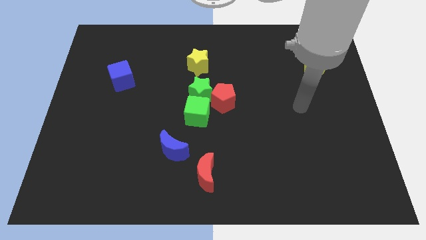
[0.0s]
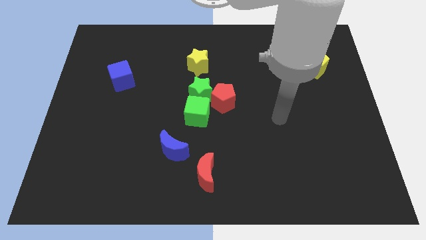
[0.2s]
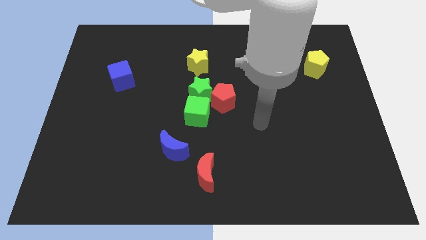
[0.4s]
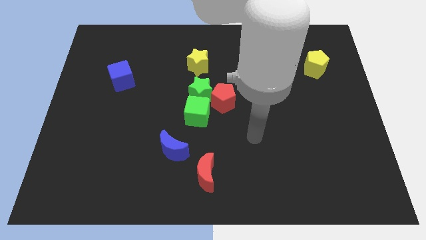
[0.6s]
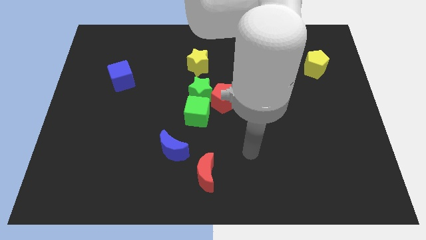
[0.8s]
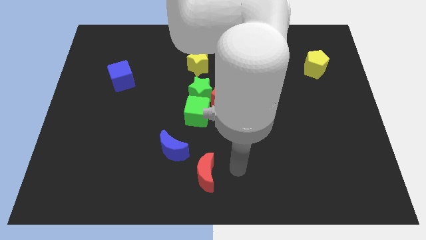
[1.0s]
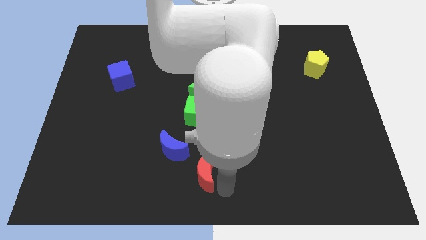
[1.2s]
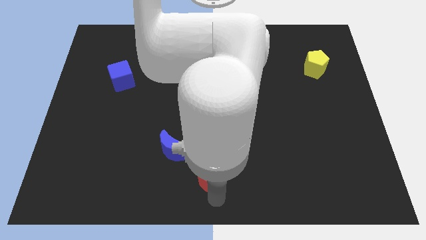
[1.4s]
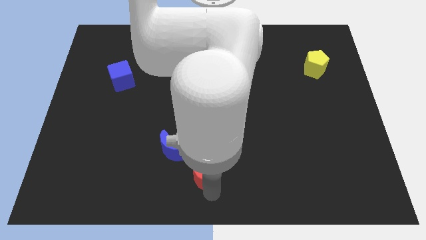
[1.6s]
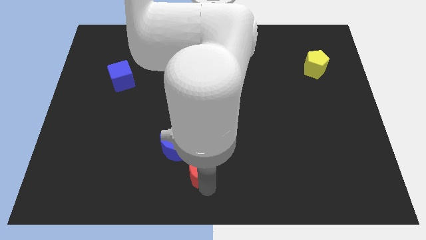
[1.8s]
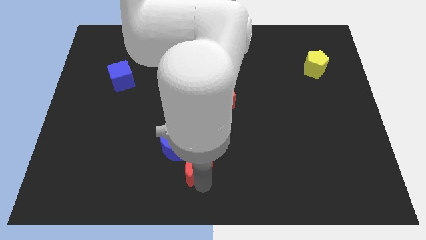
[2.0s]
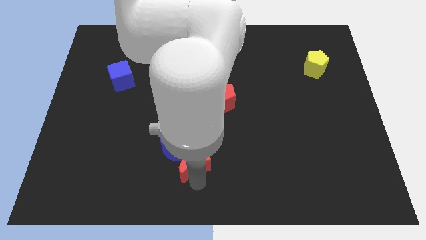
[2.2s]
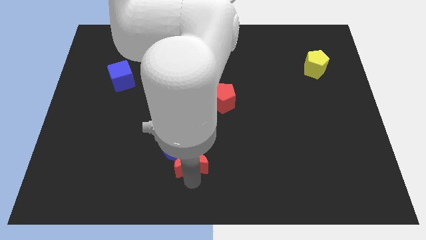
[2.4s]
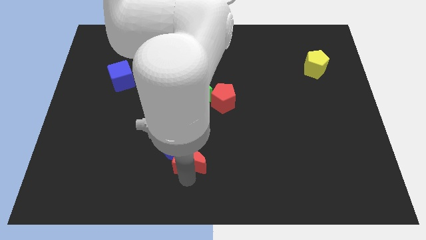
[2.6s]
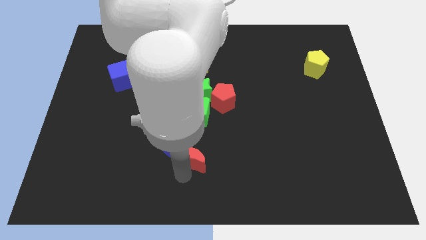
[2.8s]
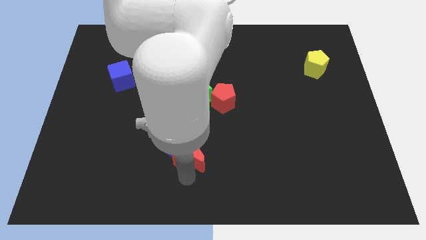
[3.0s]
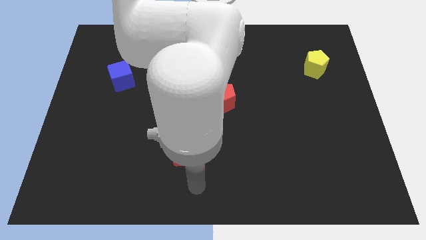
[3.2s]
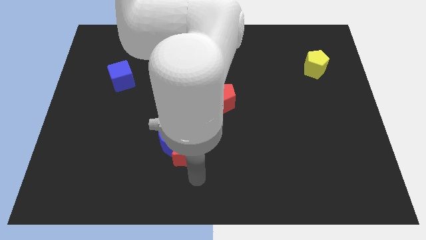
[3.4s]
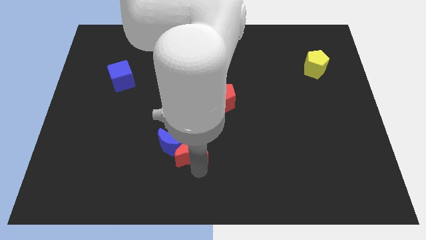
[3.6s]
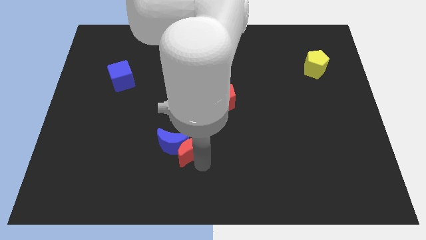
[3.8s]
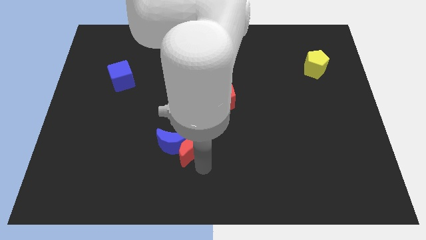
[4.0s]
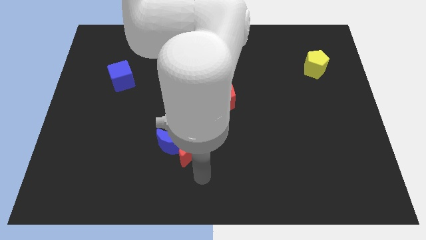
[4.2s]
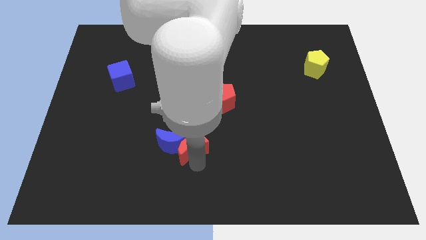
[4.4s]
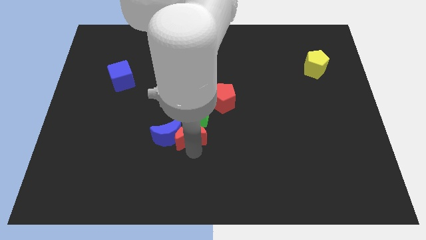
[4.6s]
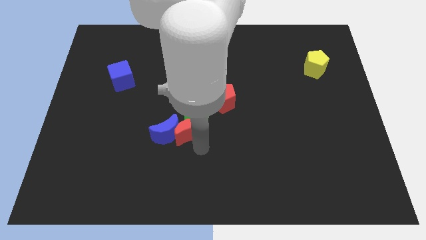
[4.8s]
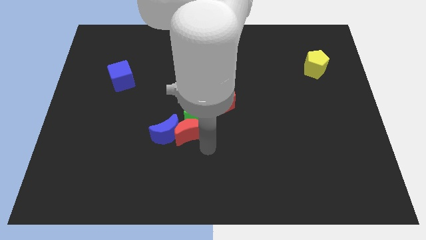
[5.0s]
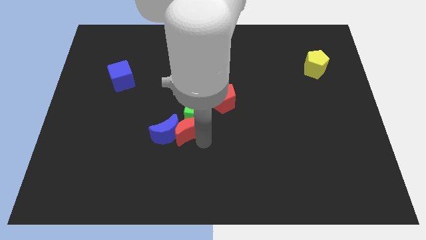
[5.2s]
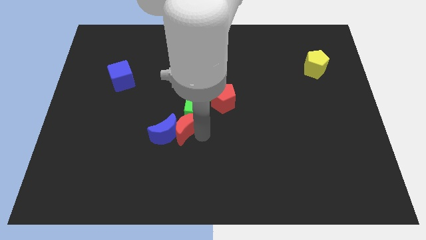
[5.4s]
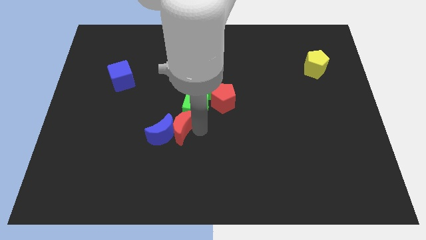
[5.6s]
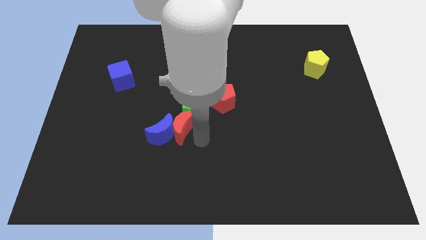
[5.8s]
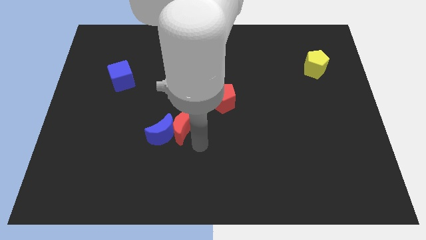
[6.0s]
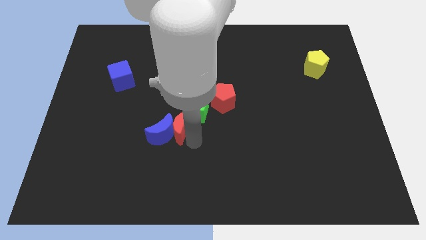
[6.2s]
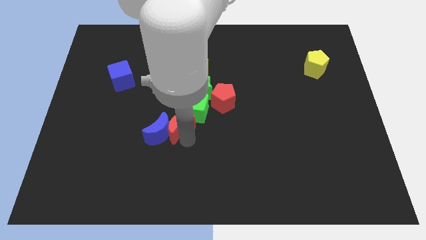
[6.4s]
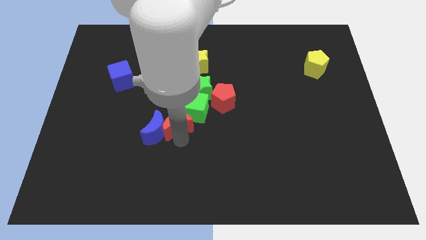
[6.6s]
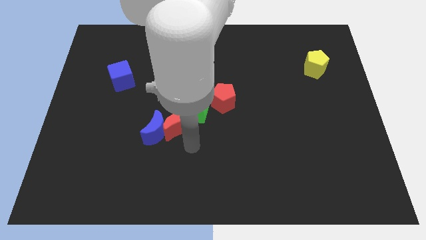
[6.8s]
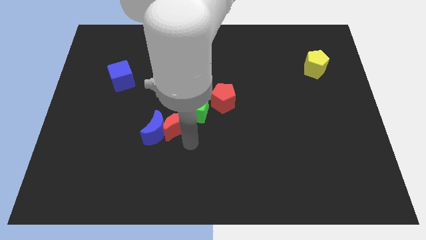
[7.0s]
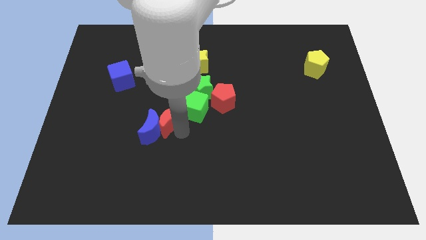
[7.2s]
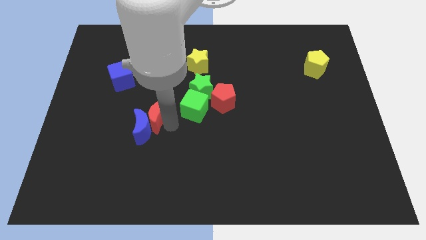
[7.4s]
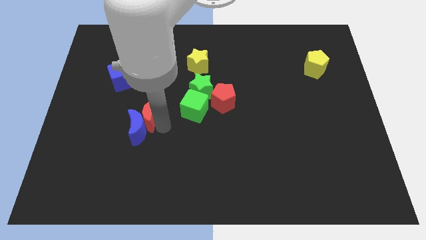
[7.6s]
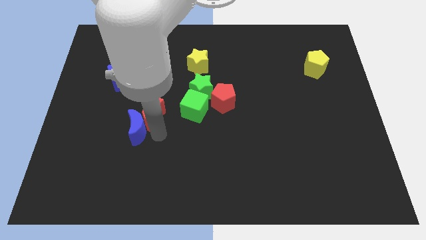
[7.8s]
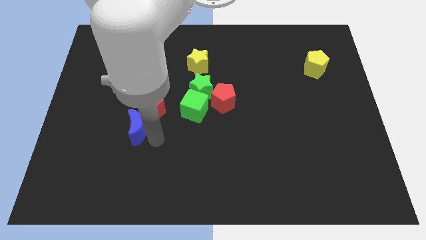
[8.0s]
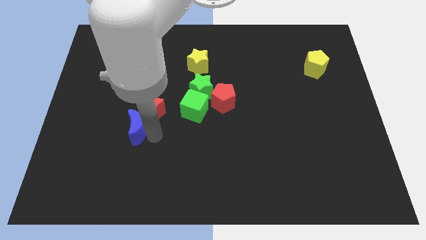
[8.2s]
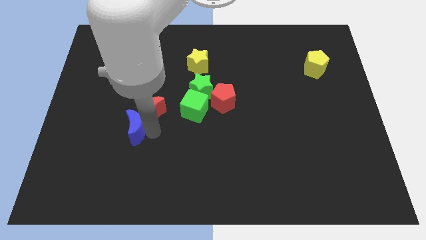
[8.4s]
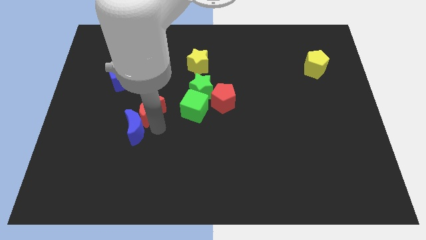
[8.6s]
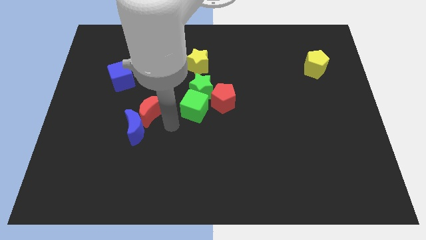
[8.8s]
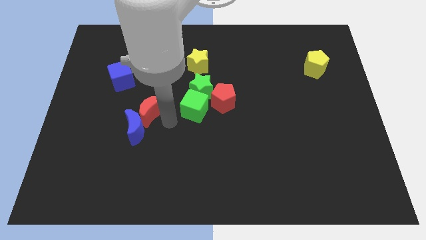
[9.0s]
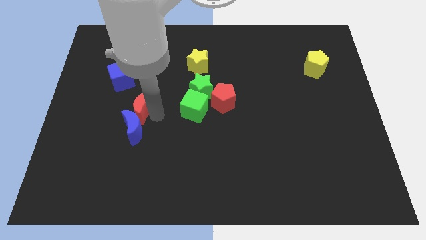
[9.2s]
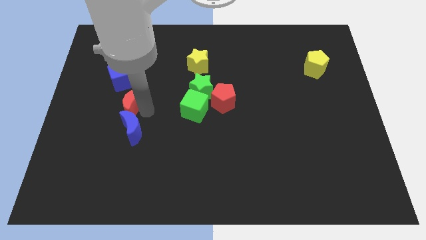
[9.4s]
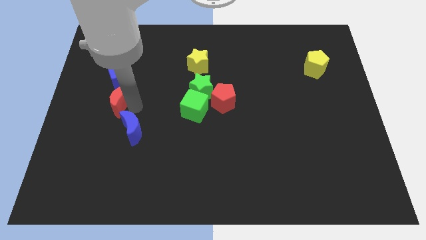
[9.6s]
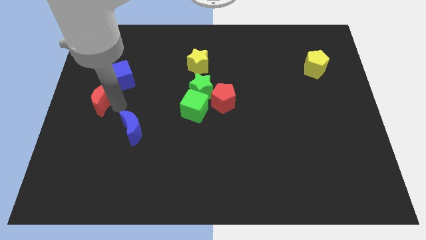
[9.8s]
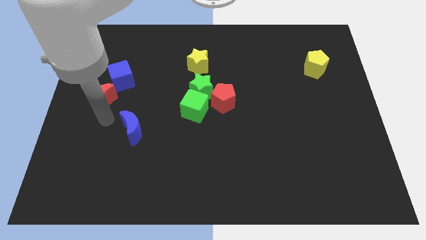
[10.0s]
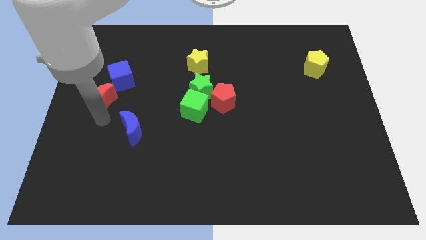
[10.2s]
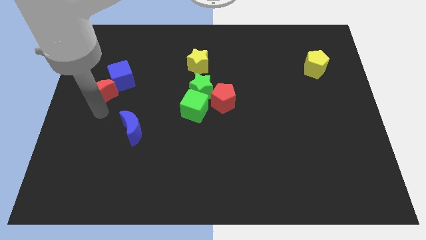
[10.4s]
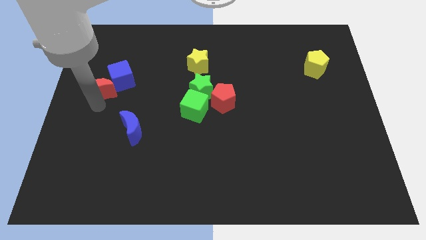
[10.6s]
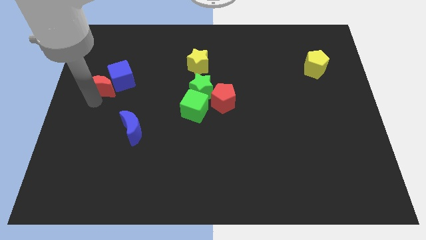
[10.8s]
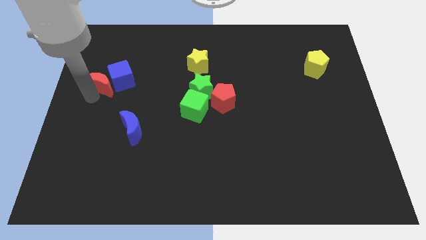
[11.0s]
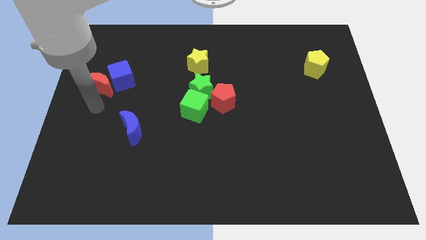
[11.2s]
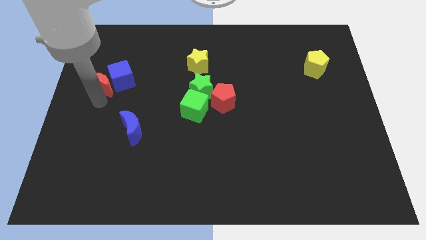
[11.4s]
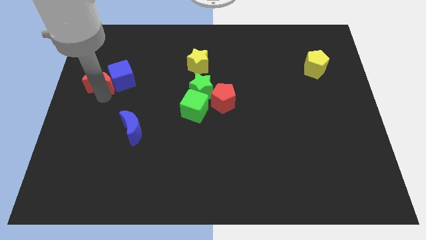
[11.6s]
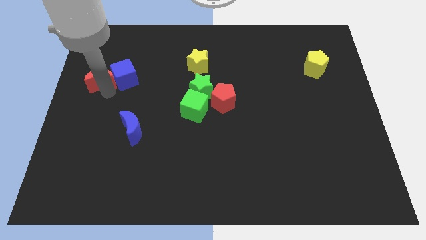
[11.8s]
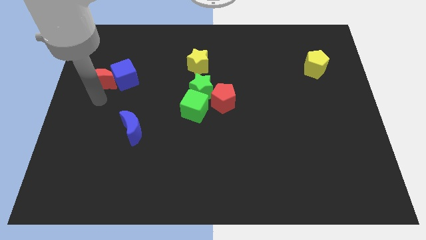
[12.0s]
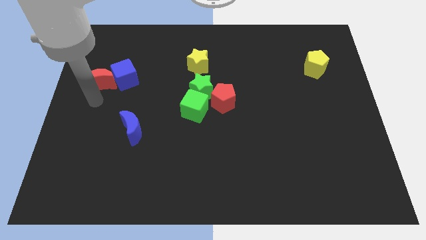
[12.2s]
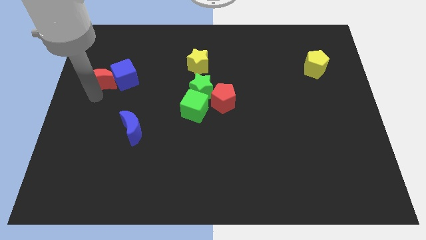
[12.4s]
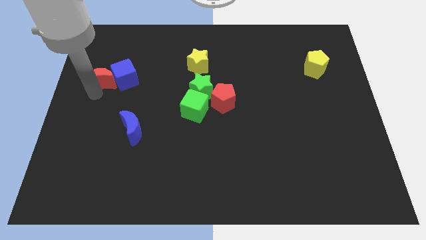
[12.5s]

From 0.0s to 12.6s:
put the red moon diagonally up and to the left of the blue cube

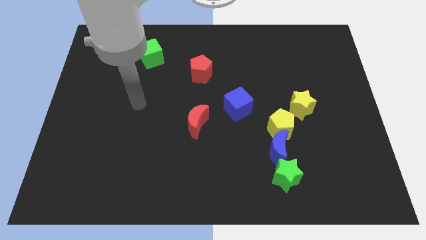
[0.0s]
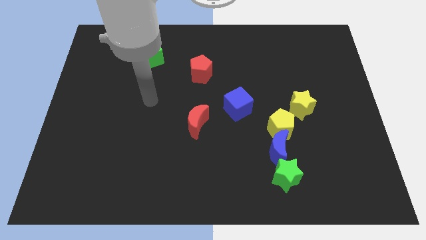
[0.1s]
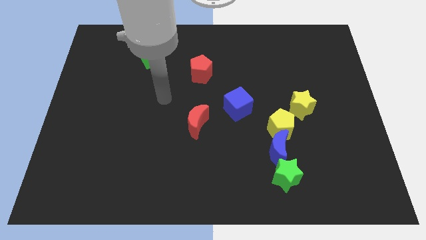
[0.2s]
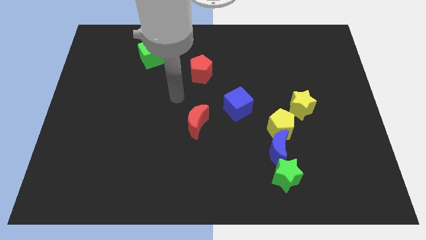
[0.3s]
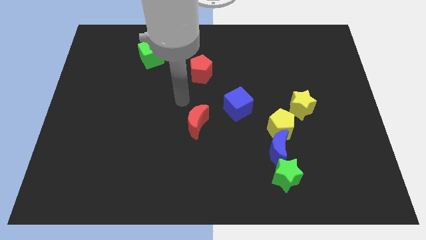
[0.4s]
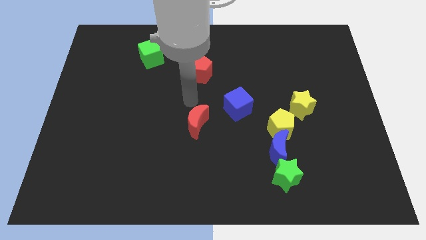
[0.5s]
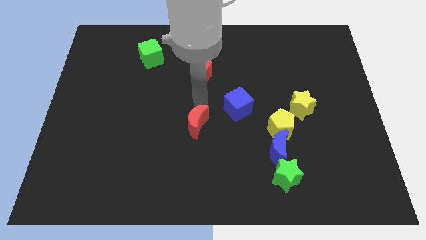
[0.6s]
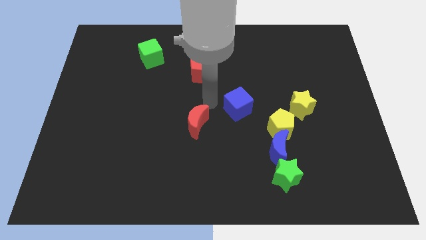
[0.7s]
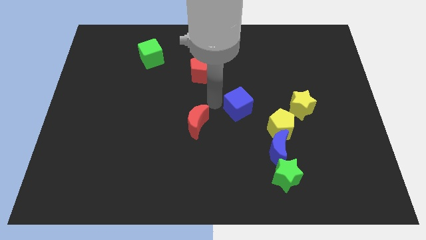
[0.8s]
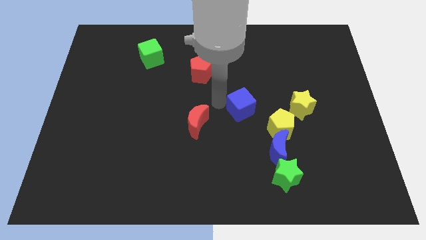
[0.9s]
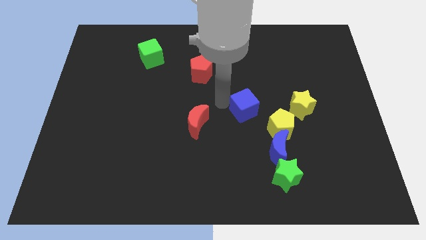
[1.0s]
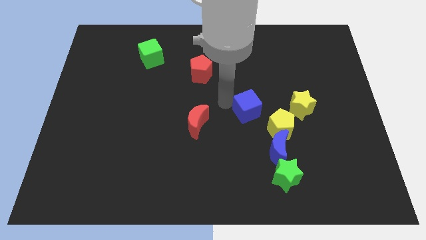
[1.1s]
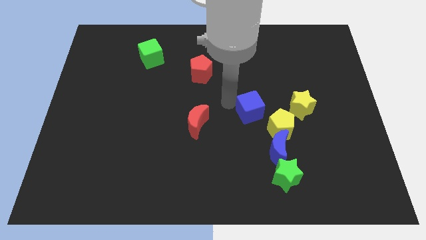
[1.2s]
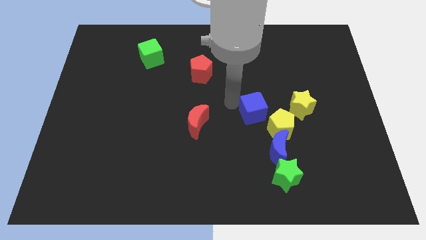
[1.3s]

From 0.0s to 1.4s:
slide the blue cube to the top of the blue moon
